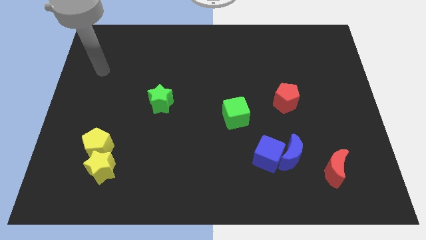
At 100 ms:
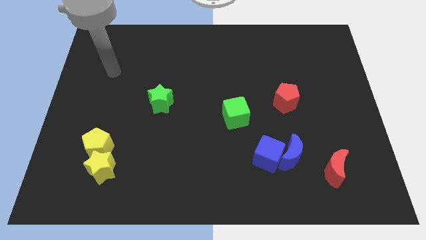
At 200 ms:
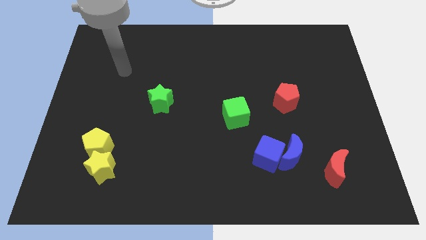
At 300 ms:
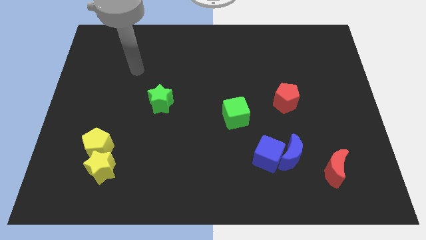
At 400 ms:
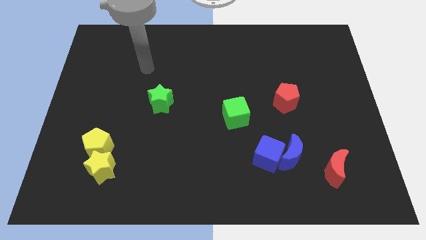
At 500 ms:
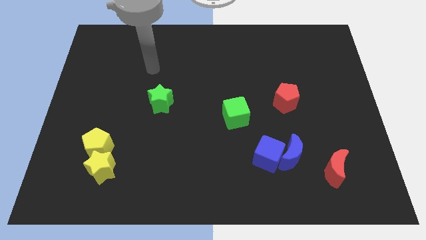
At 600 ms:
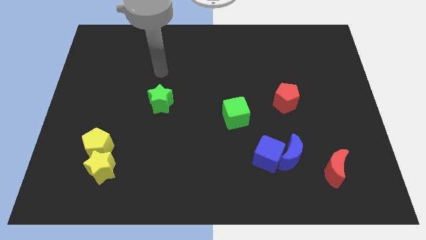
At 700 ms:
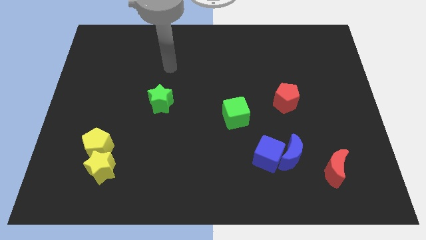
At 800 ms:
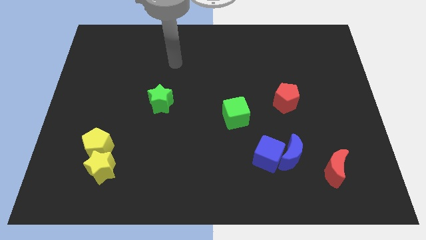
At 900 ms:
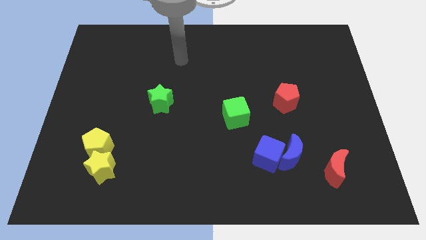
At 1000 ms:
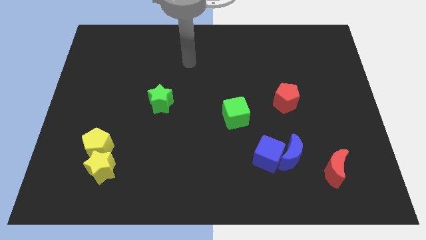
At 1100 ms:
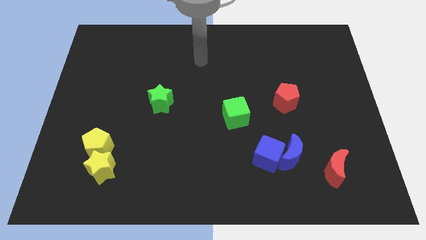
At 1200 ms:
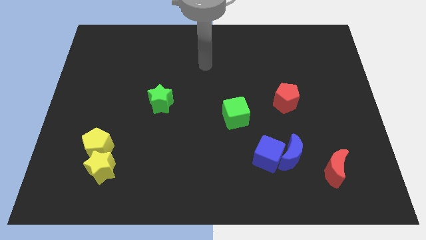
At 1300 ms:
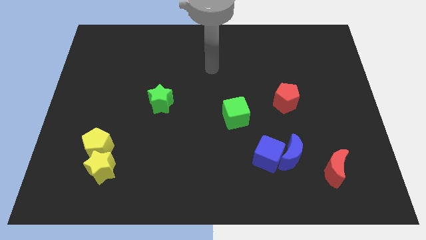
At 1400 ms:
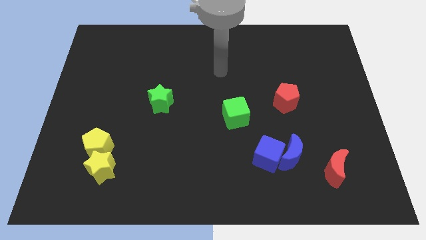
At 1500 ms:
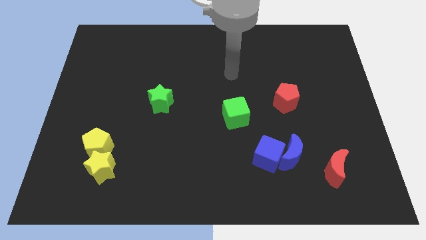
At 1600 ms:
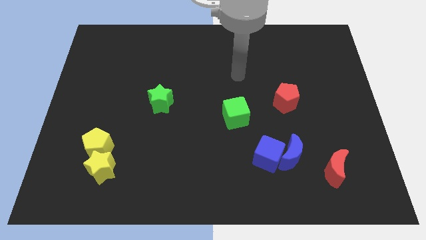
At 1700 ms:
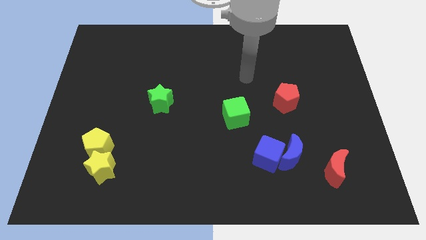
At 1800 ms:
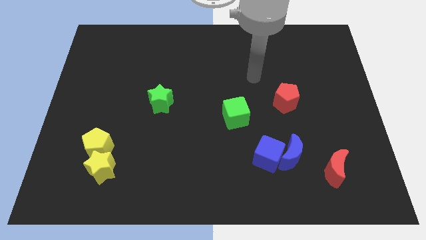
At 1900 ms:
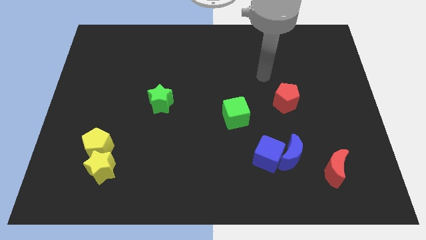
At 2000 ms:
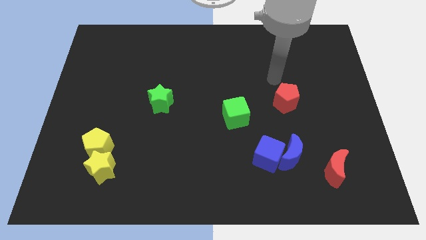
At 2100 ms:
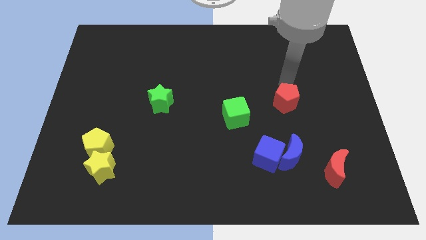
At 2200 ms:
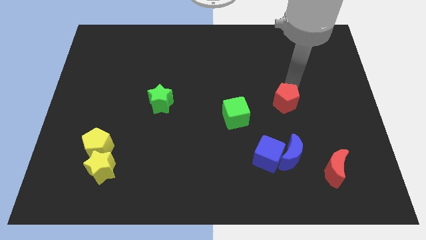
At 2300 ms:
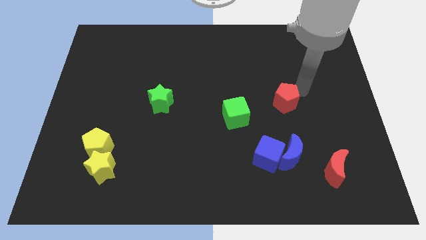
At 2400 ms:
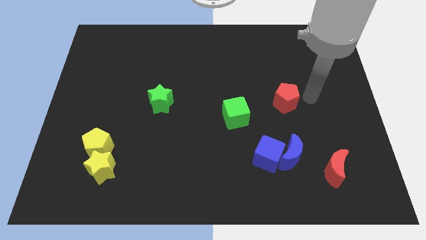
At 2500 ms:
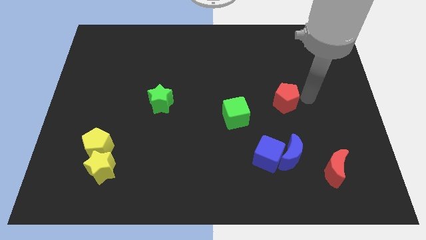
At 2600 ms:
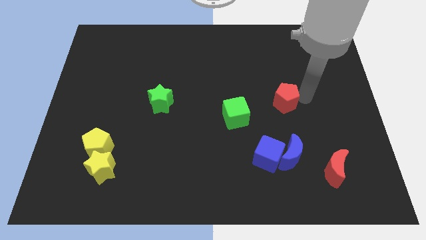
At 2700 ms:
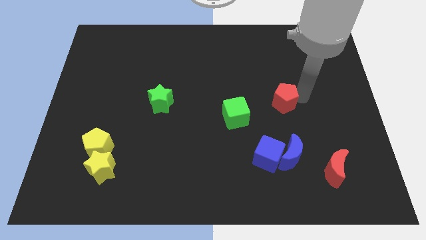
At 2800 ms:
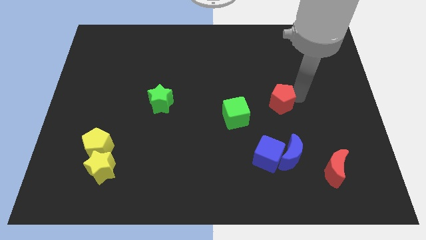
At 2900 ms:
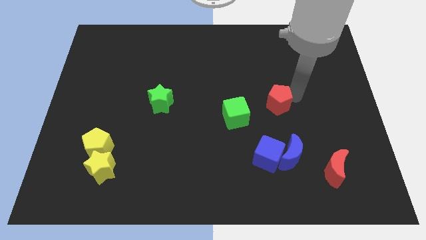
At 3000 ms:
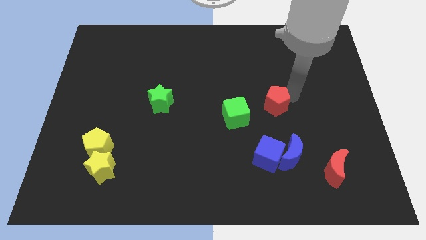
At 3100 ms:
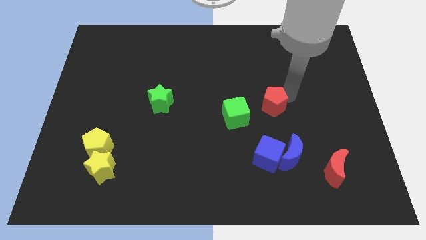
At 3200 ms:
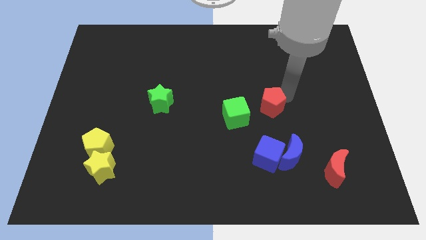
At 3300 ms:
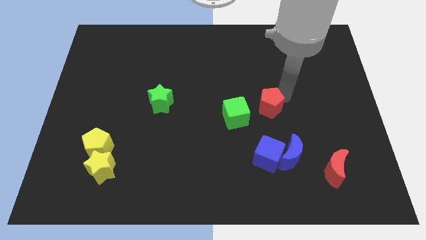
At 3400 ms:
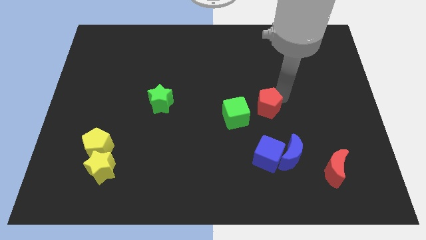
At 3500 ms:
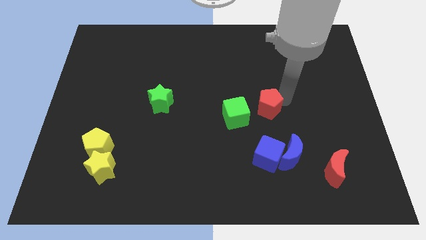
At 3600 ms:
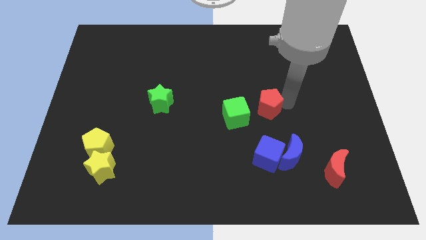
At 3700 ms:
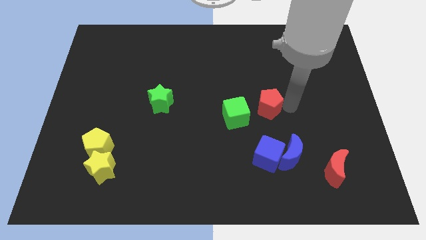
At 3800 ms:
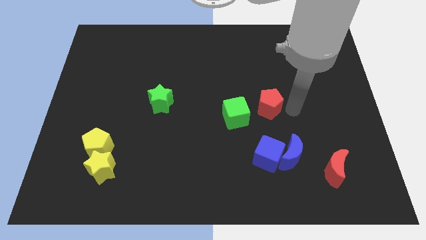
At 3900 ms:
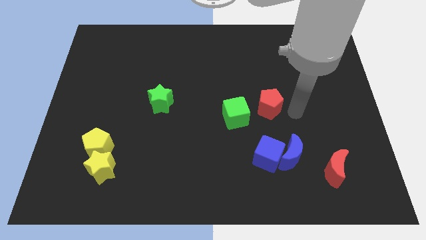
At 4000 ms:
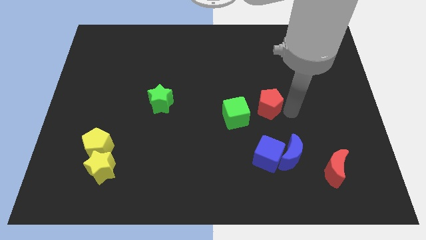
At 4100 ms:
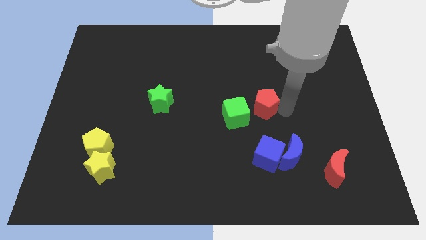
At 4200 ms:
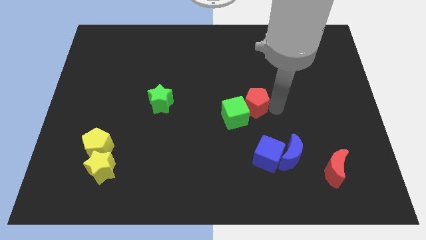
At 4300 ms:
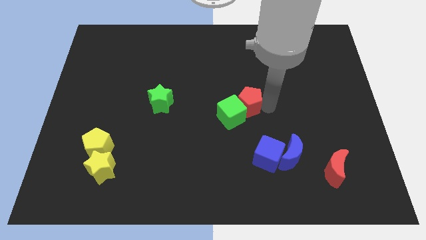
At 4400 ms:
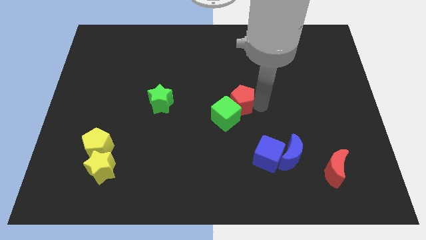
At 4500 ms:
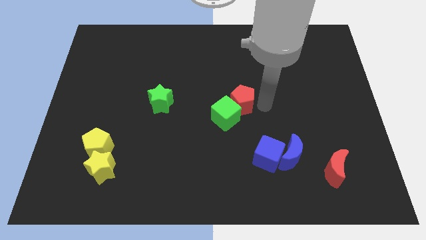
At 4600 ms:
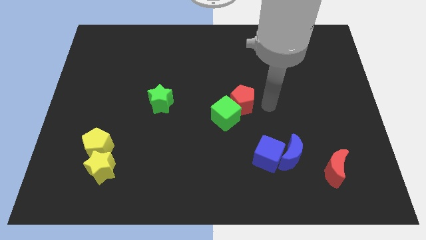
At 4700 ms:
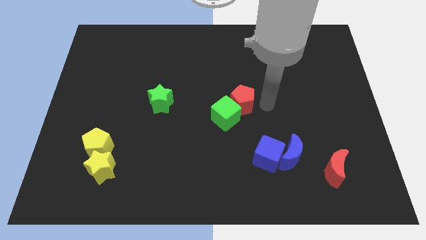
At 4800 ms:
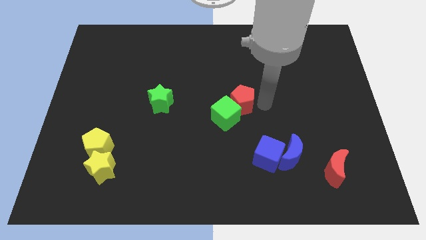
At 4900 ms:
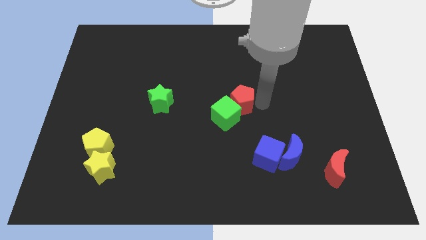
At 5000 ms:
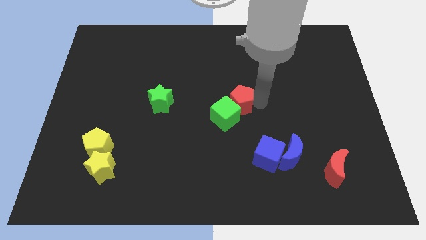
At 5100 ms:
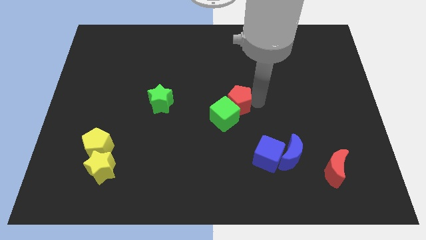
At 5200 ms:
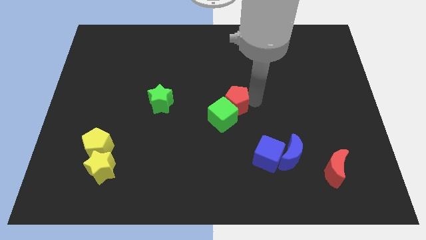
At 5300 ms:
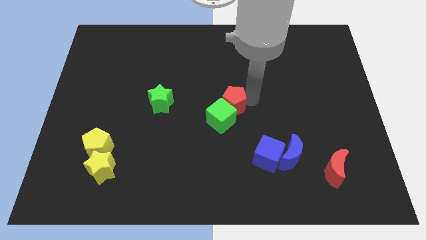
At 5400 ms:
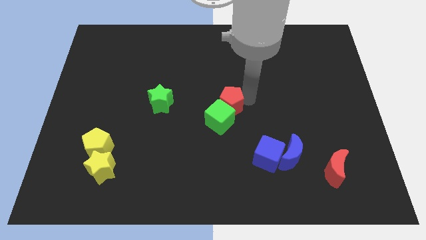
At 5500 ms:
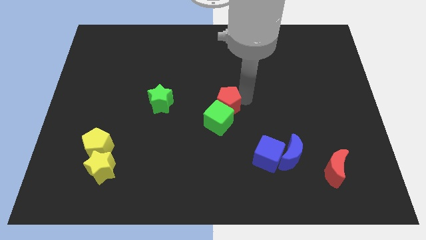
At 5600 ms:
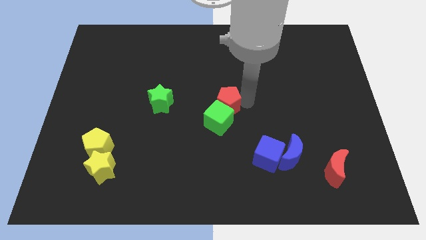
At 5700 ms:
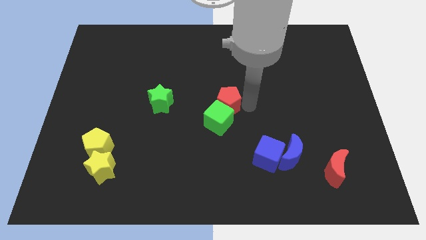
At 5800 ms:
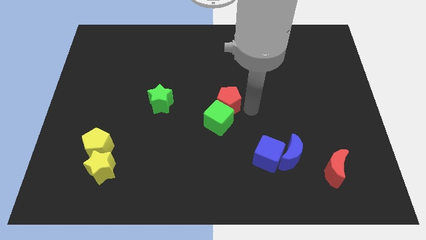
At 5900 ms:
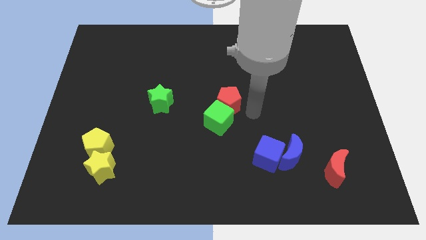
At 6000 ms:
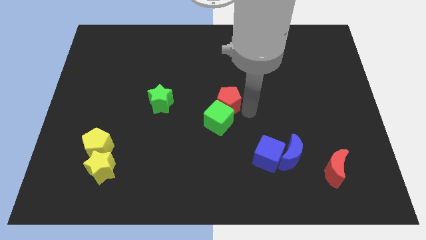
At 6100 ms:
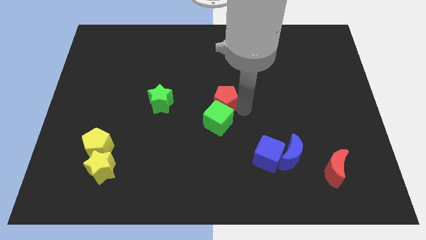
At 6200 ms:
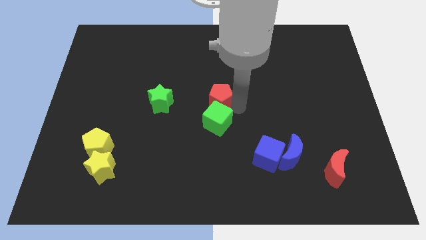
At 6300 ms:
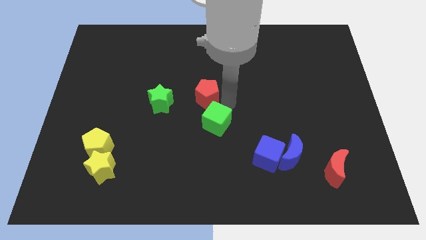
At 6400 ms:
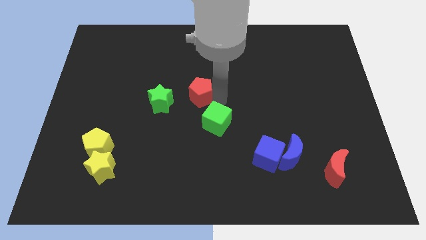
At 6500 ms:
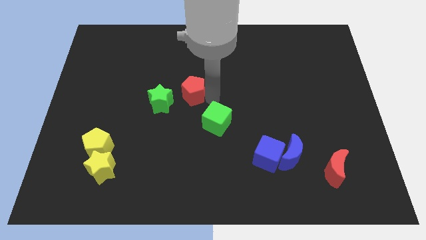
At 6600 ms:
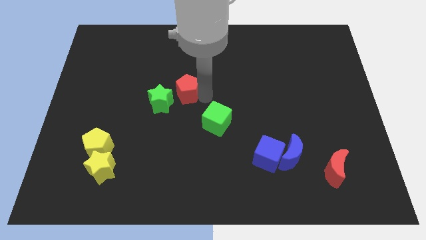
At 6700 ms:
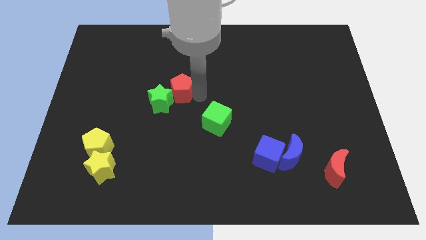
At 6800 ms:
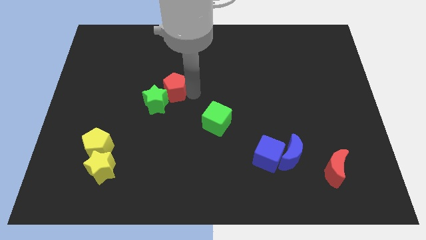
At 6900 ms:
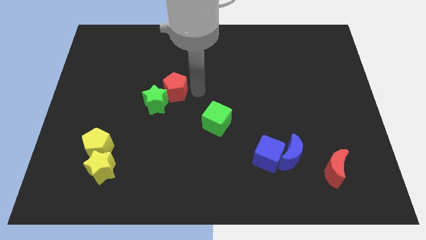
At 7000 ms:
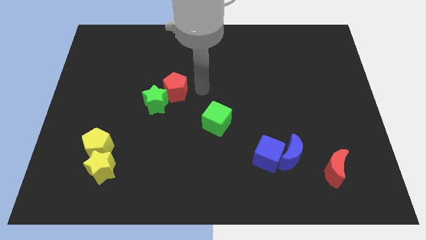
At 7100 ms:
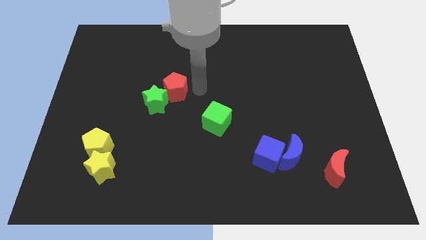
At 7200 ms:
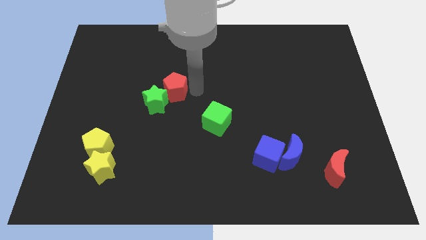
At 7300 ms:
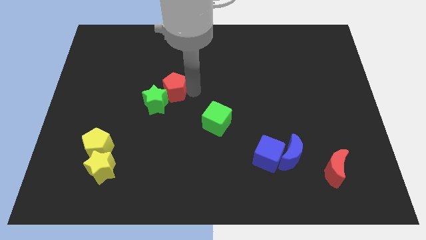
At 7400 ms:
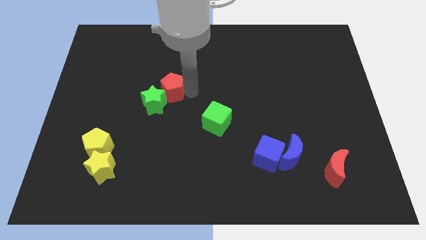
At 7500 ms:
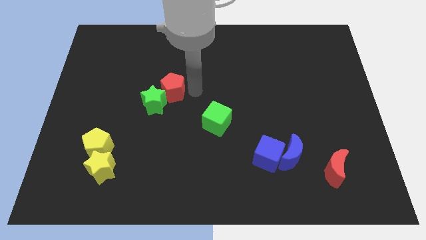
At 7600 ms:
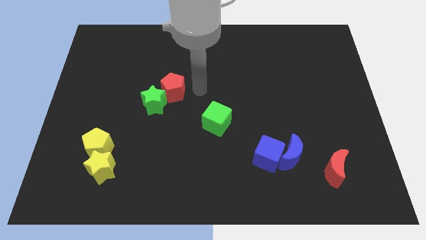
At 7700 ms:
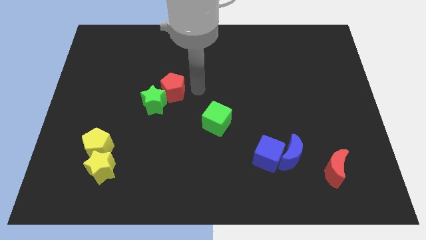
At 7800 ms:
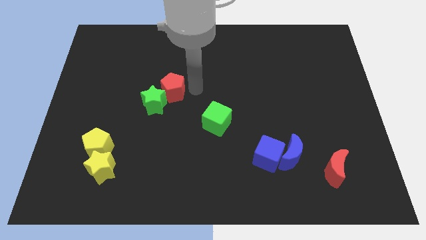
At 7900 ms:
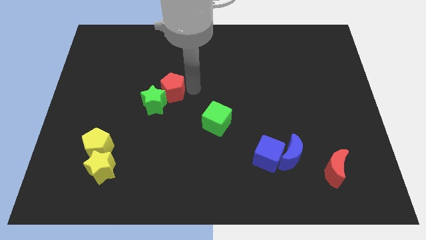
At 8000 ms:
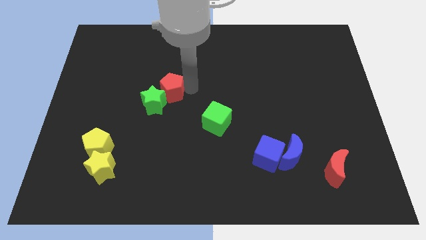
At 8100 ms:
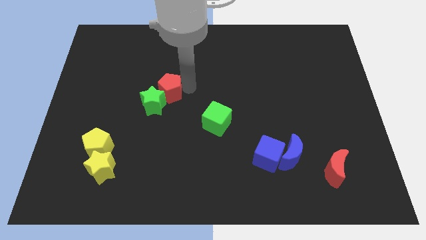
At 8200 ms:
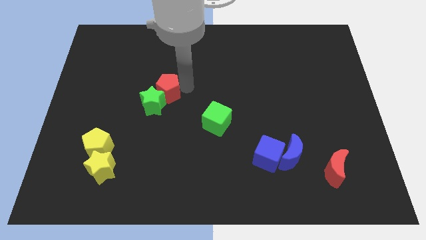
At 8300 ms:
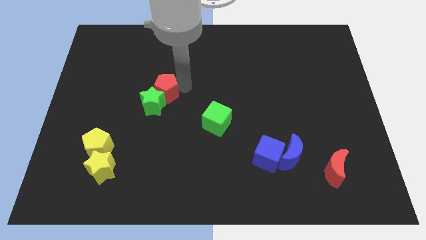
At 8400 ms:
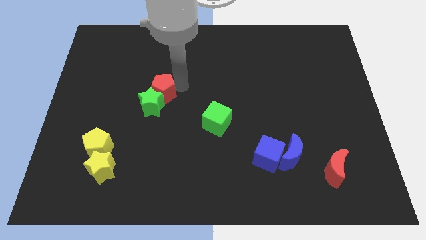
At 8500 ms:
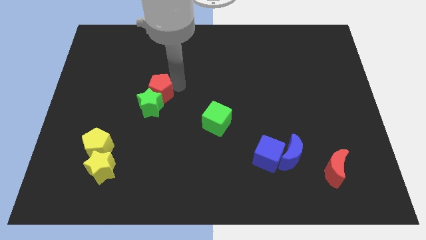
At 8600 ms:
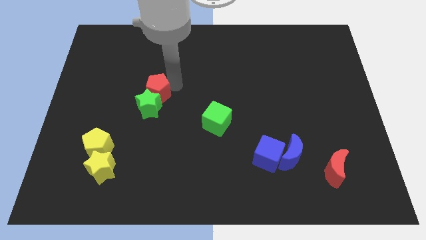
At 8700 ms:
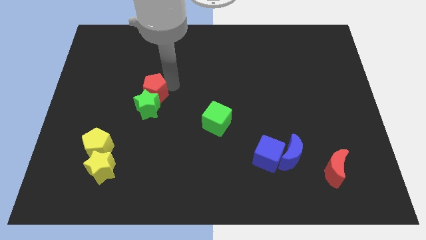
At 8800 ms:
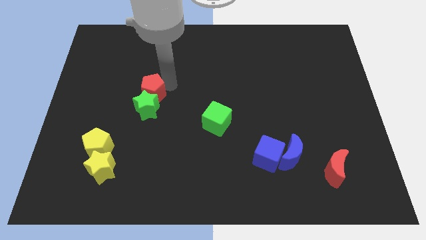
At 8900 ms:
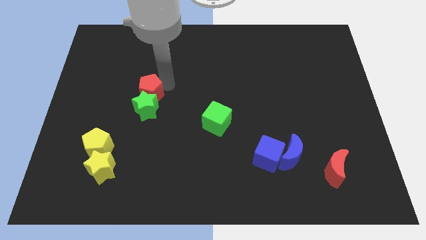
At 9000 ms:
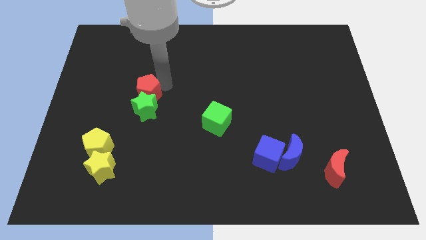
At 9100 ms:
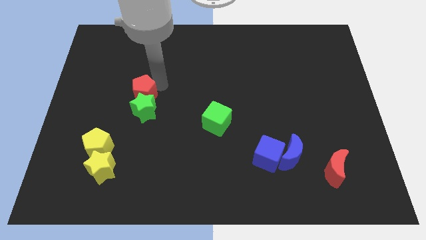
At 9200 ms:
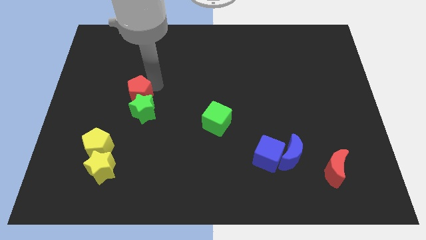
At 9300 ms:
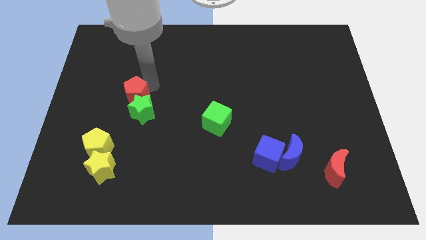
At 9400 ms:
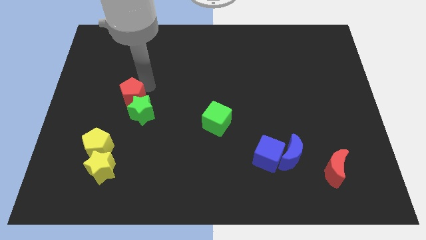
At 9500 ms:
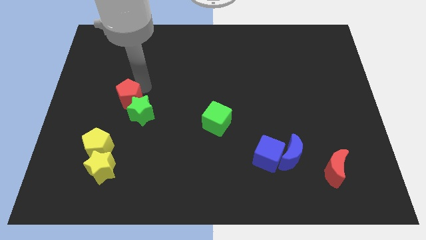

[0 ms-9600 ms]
put the red pentagon to the left of the green star
